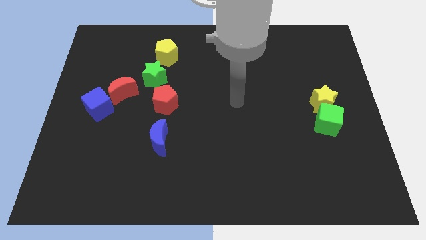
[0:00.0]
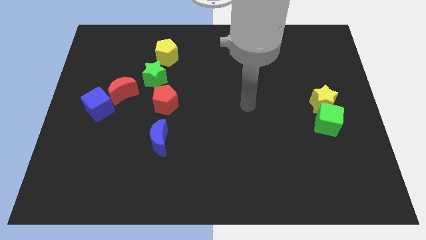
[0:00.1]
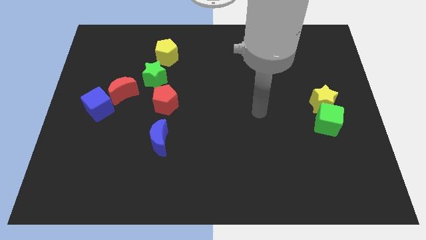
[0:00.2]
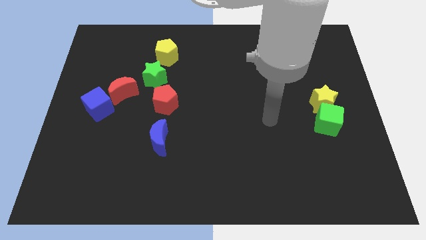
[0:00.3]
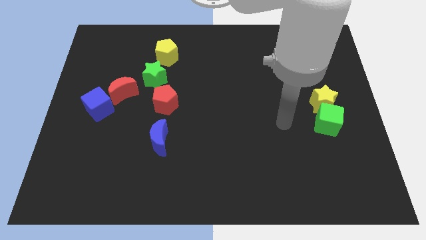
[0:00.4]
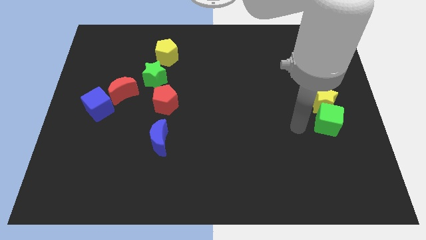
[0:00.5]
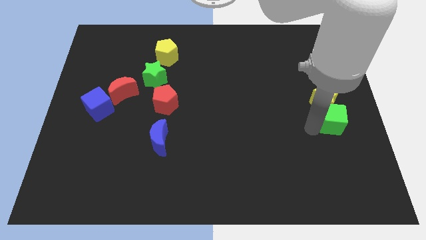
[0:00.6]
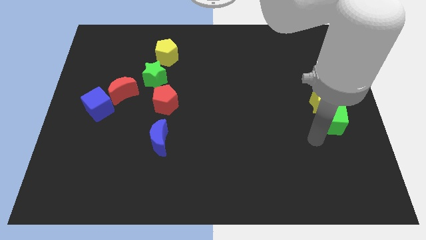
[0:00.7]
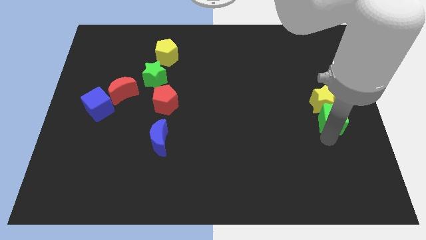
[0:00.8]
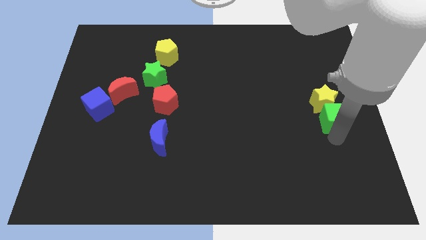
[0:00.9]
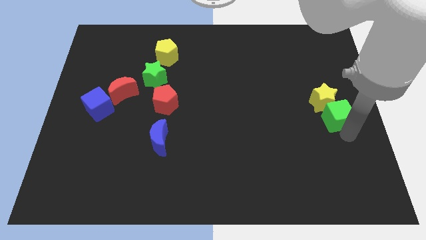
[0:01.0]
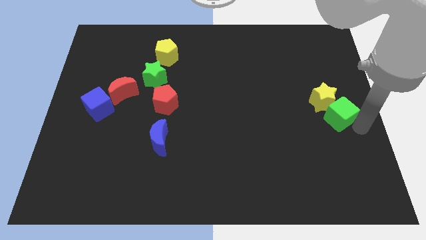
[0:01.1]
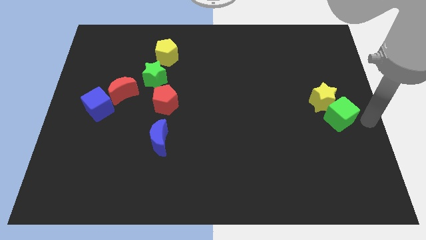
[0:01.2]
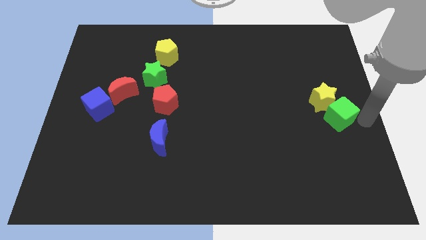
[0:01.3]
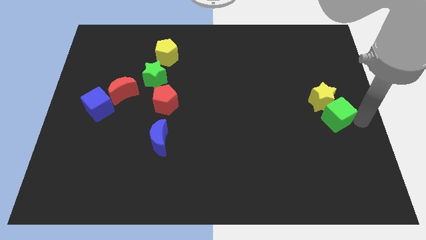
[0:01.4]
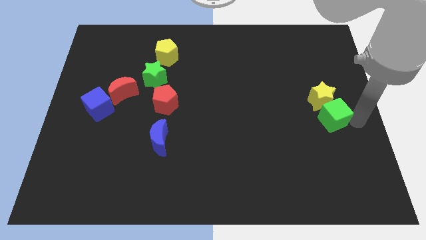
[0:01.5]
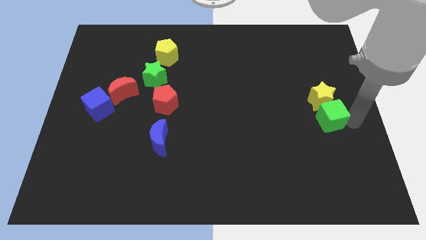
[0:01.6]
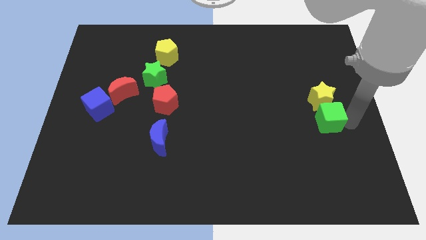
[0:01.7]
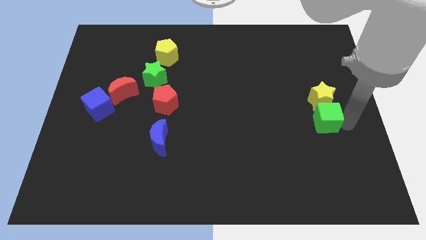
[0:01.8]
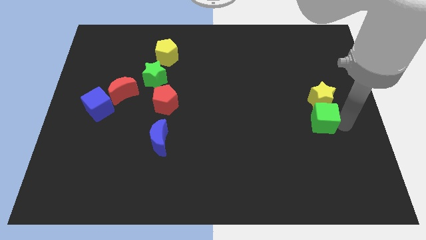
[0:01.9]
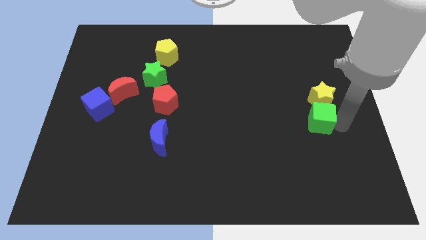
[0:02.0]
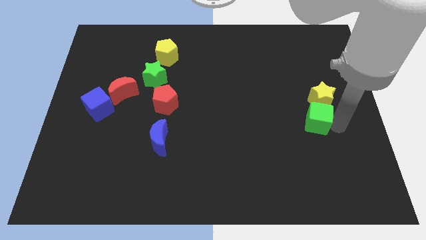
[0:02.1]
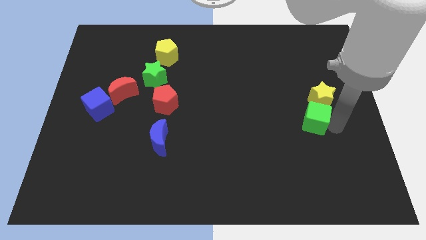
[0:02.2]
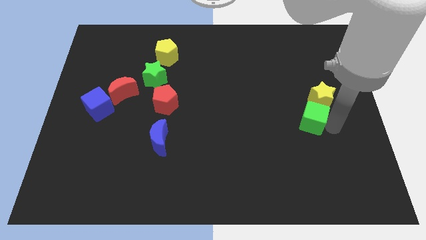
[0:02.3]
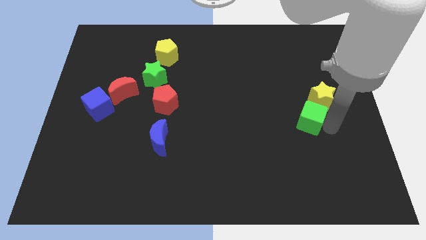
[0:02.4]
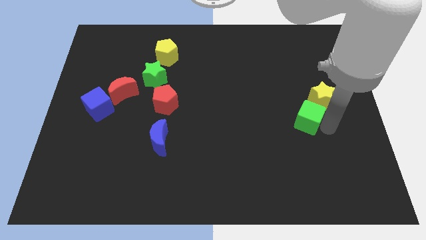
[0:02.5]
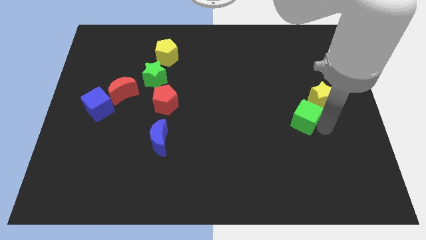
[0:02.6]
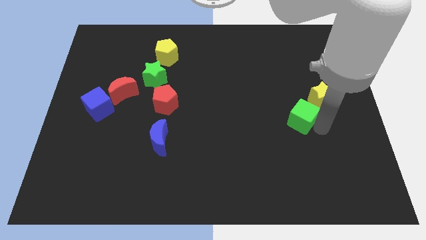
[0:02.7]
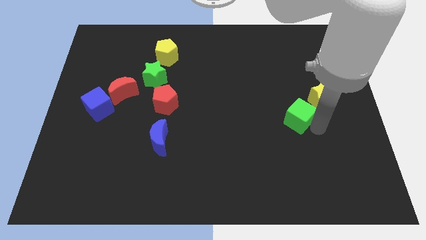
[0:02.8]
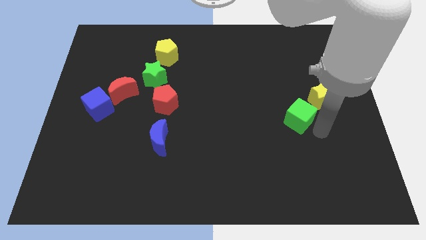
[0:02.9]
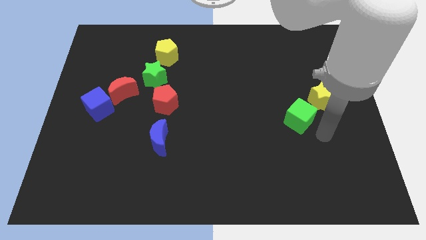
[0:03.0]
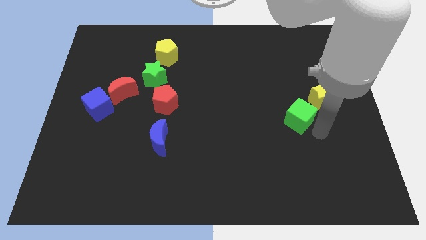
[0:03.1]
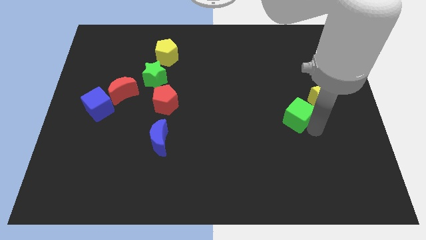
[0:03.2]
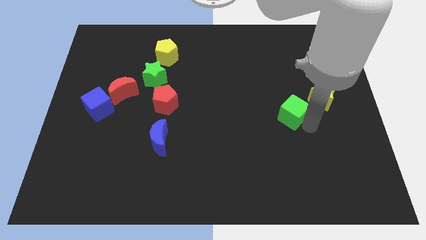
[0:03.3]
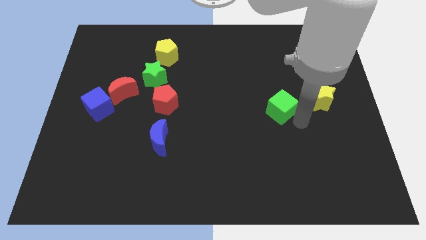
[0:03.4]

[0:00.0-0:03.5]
push the green cube a bit diagonally upwards and to the left

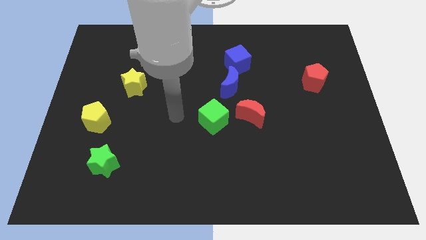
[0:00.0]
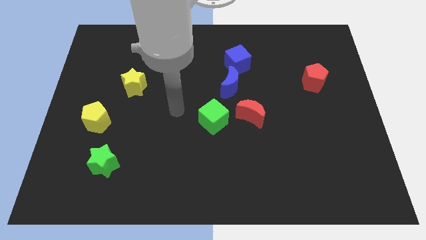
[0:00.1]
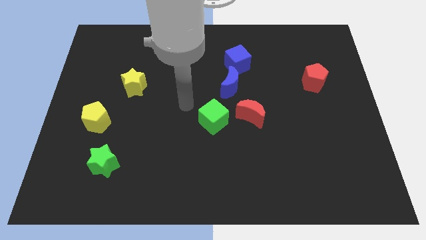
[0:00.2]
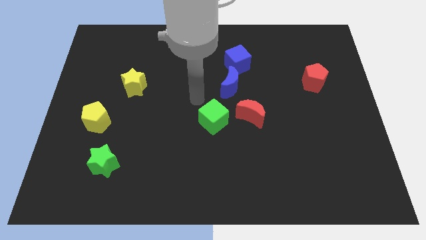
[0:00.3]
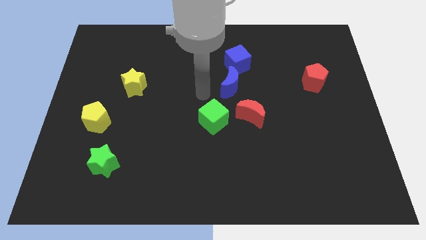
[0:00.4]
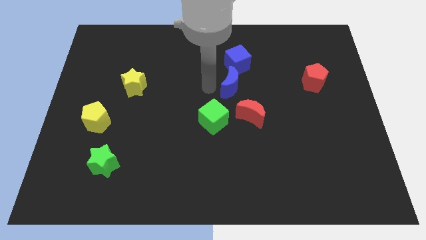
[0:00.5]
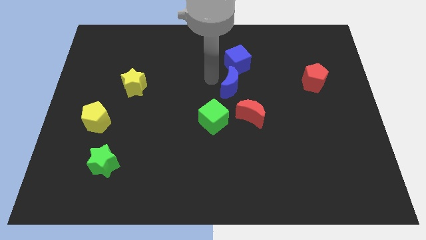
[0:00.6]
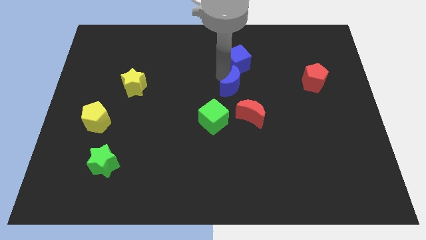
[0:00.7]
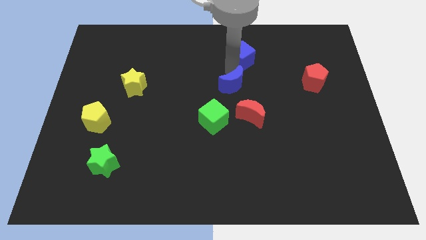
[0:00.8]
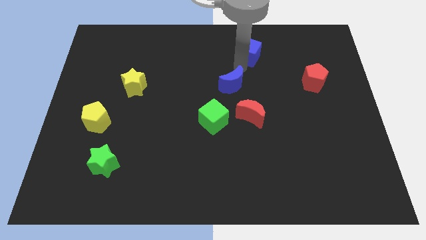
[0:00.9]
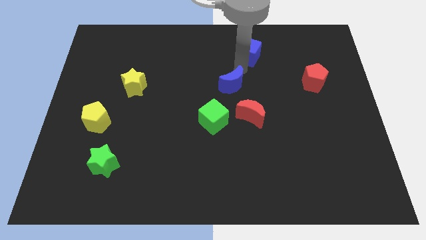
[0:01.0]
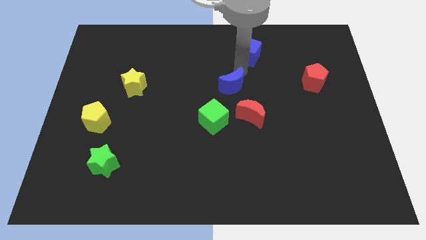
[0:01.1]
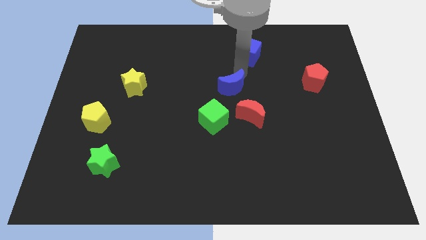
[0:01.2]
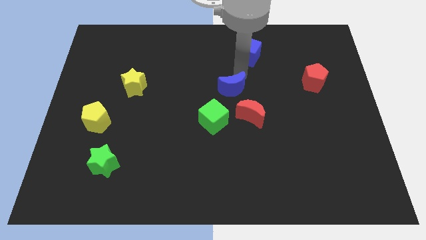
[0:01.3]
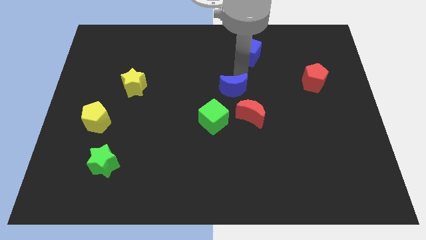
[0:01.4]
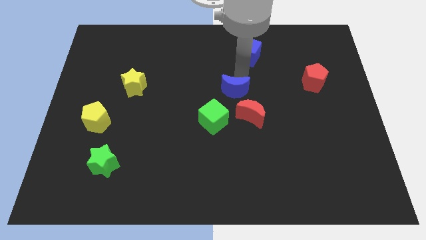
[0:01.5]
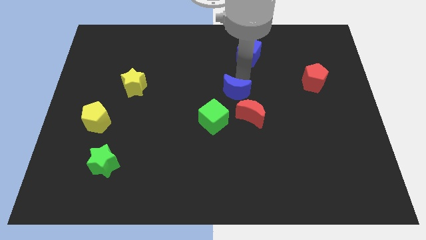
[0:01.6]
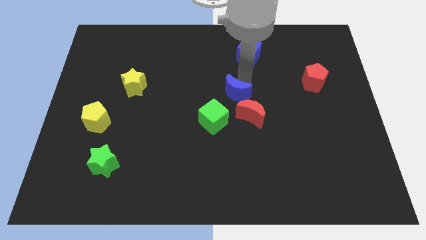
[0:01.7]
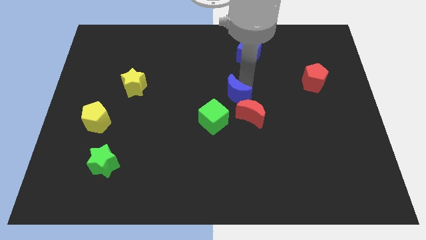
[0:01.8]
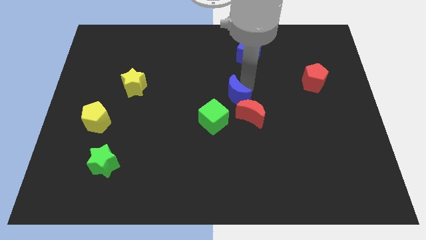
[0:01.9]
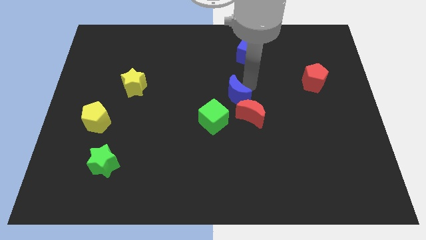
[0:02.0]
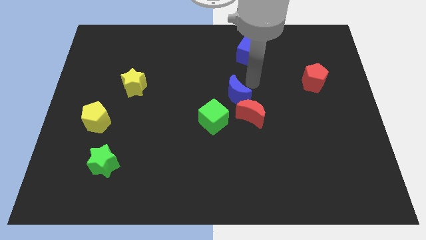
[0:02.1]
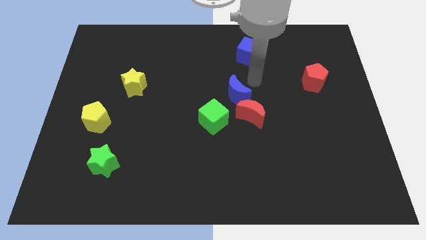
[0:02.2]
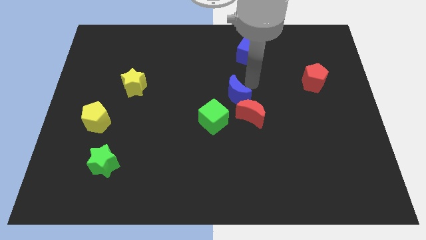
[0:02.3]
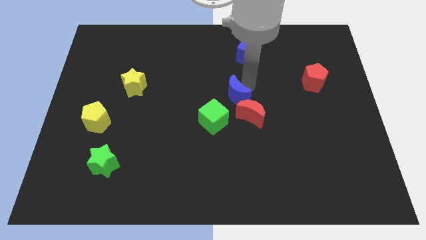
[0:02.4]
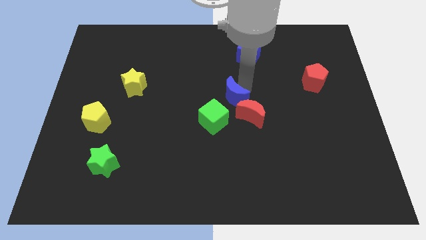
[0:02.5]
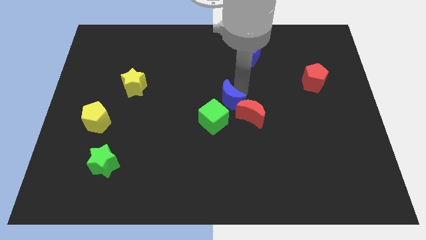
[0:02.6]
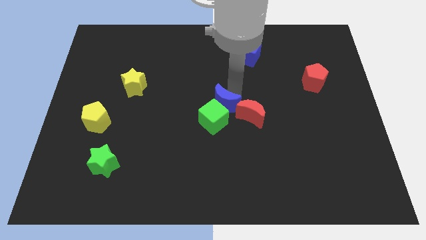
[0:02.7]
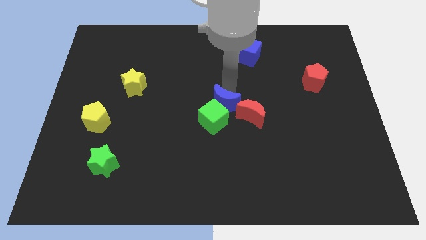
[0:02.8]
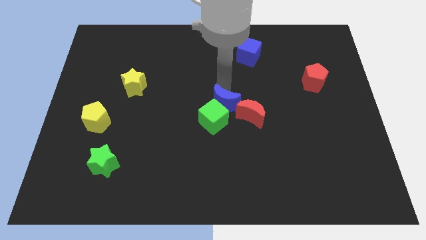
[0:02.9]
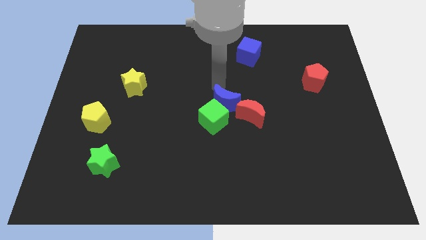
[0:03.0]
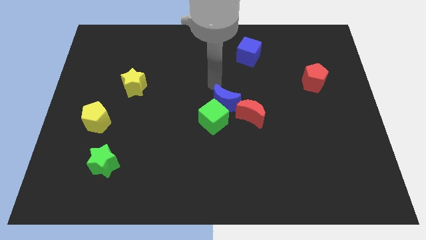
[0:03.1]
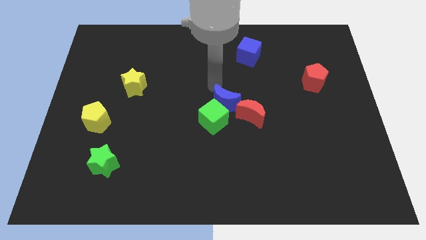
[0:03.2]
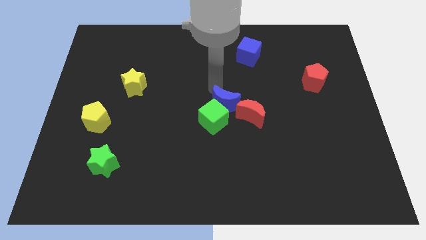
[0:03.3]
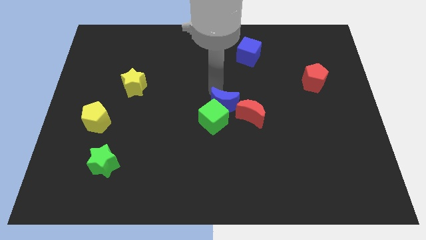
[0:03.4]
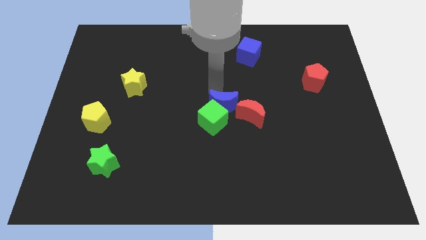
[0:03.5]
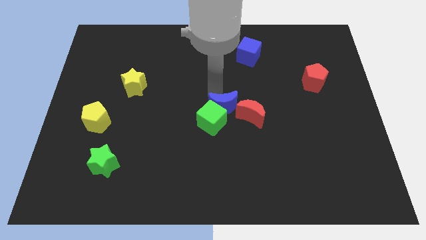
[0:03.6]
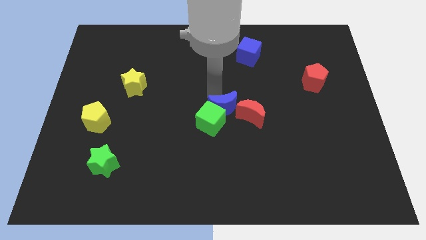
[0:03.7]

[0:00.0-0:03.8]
slightly slide the blue moon downwards

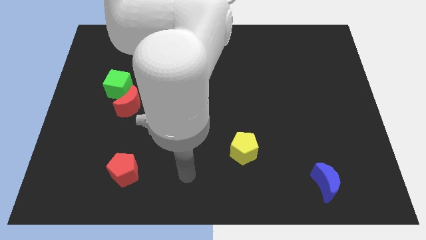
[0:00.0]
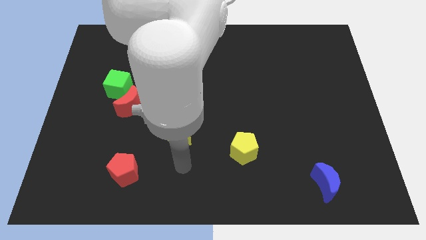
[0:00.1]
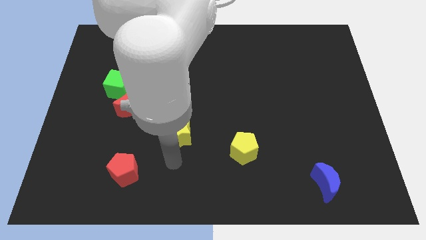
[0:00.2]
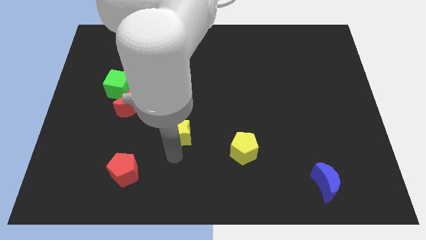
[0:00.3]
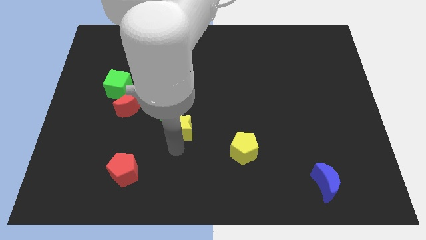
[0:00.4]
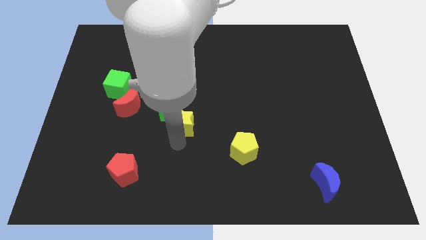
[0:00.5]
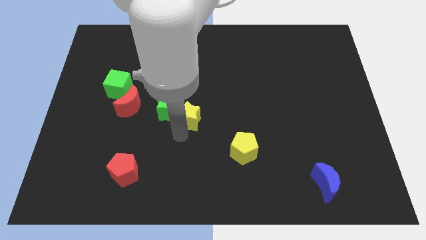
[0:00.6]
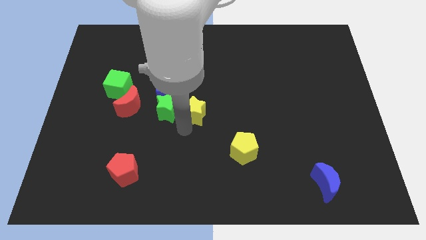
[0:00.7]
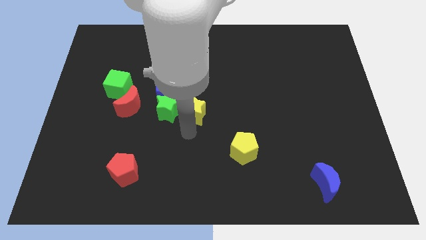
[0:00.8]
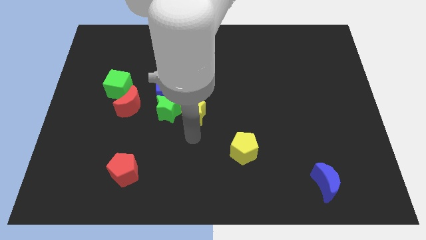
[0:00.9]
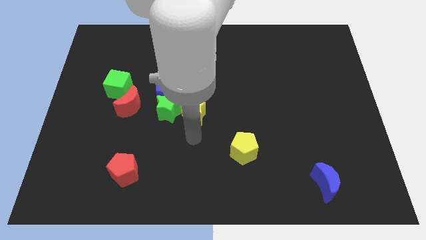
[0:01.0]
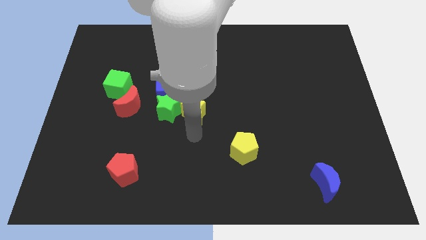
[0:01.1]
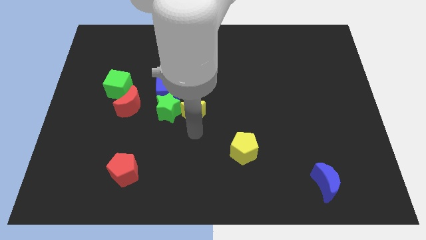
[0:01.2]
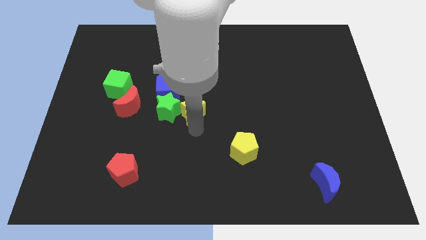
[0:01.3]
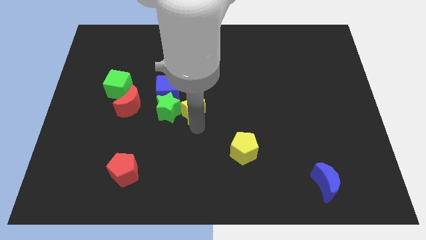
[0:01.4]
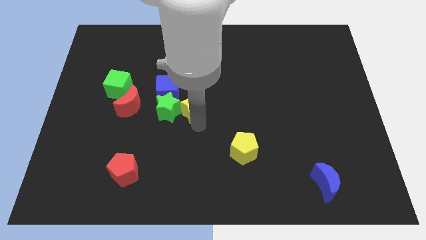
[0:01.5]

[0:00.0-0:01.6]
slightly move the yellow star up
